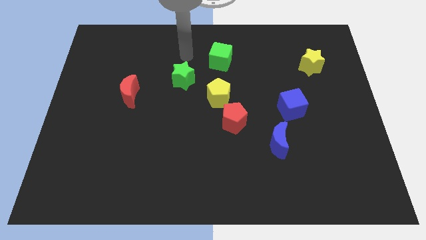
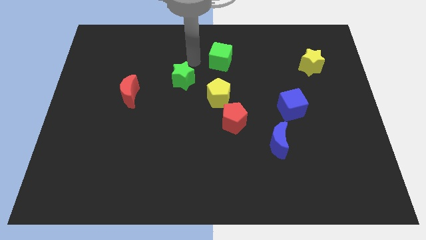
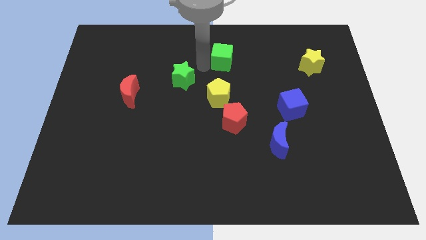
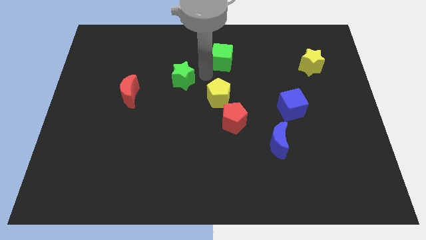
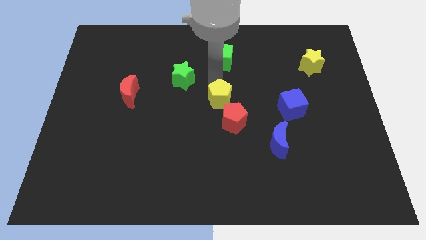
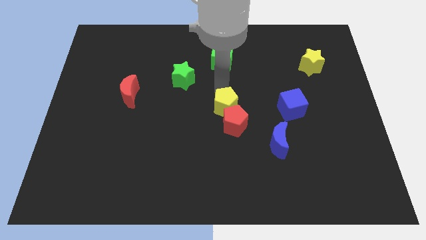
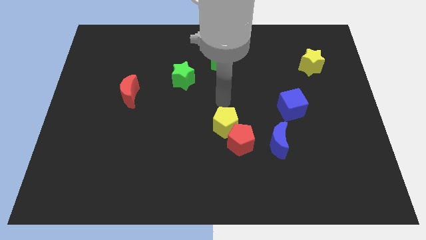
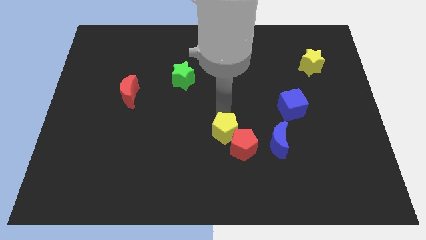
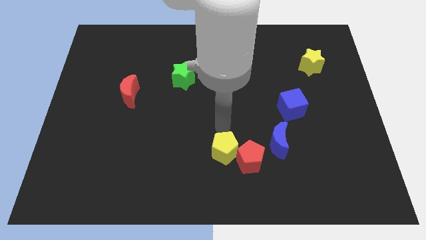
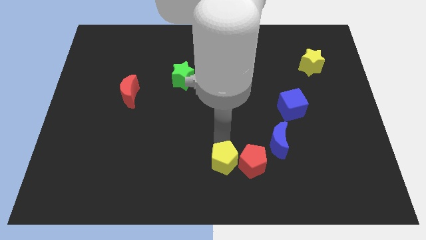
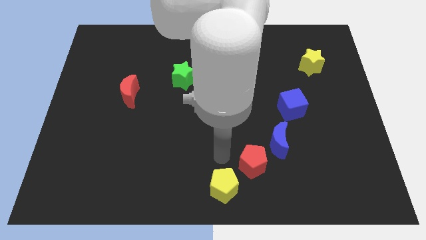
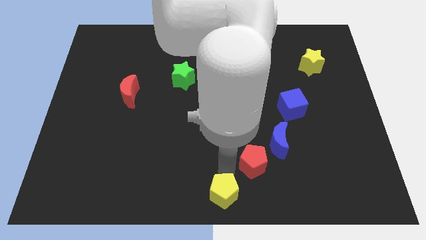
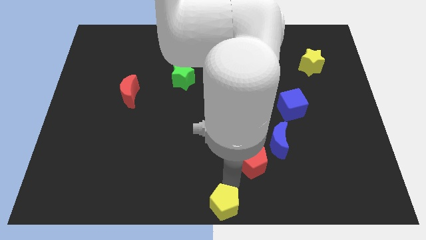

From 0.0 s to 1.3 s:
separate the red pentagon from the yellow pentagon

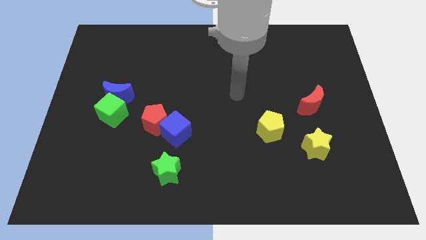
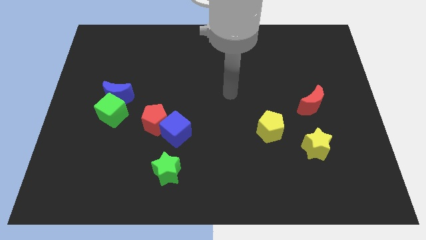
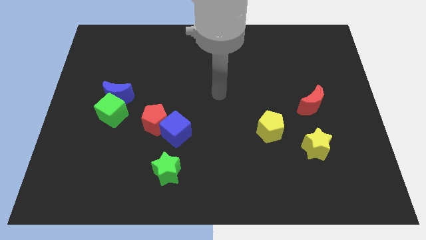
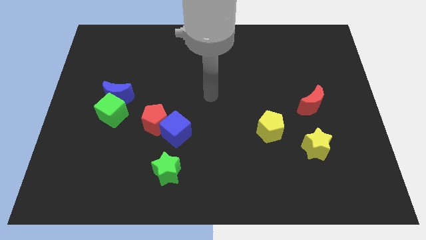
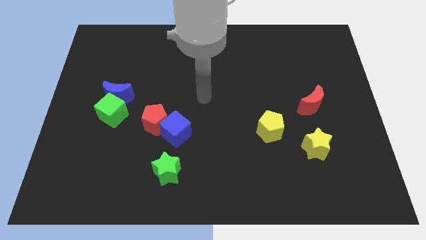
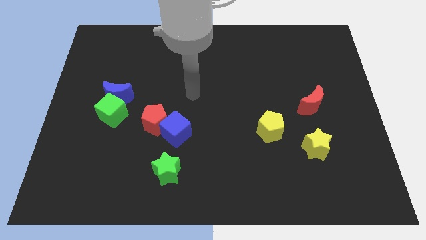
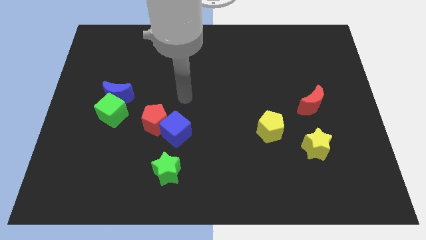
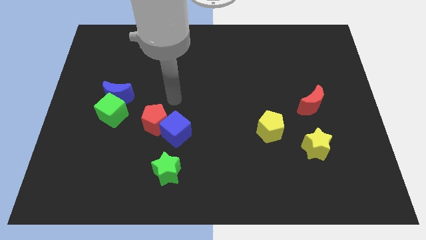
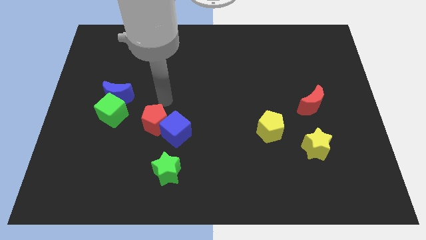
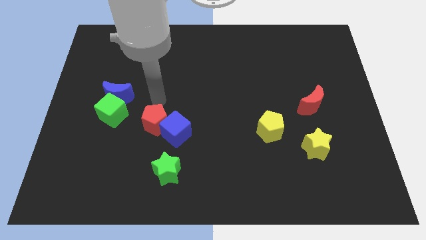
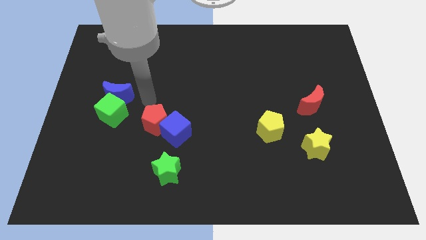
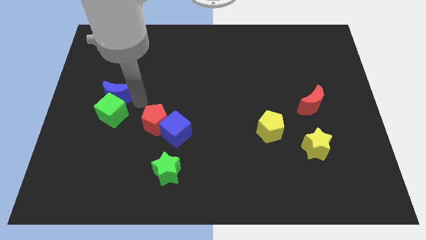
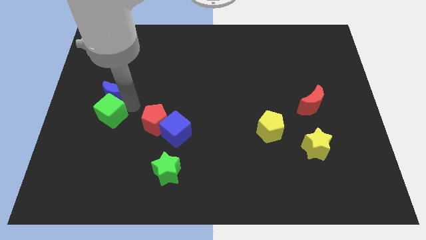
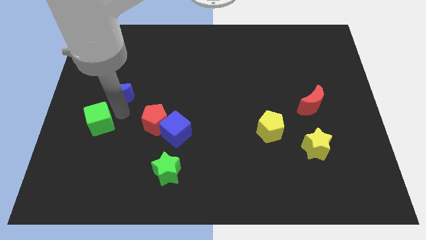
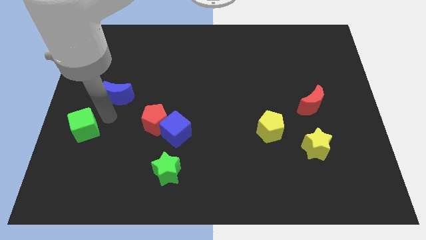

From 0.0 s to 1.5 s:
separate the blue moon from the green cube

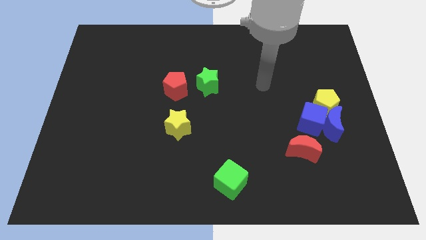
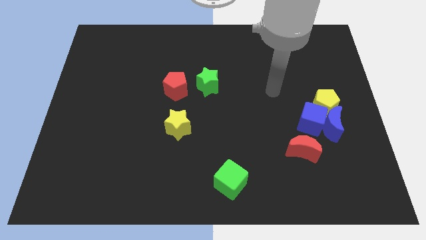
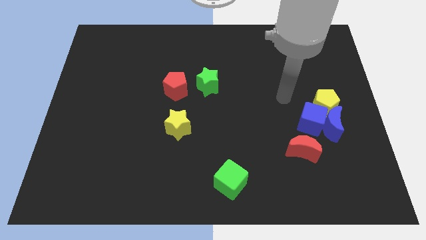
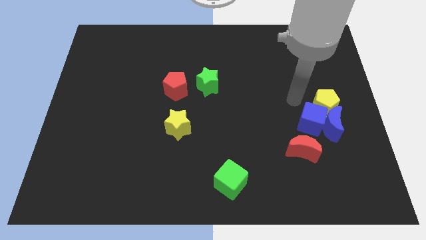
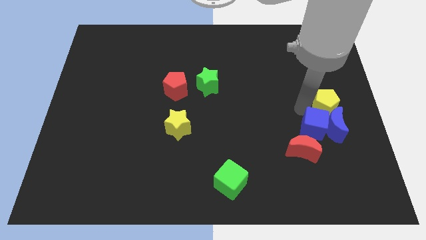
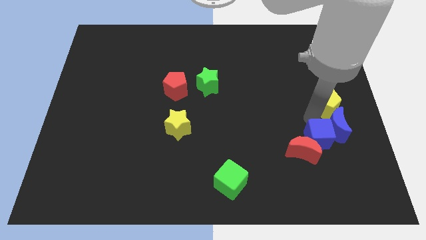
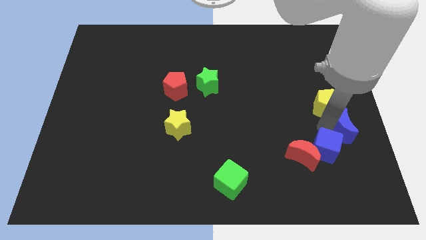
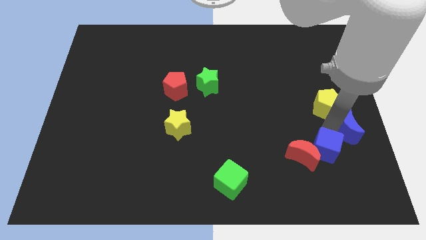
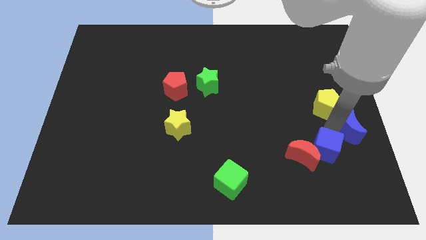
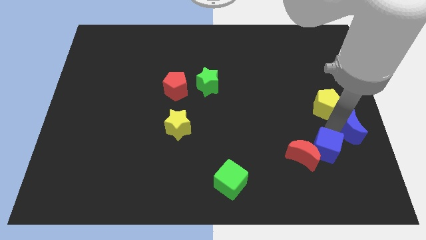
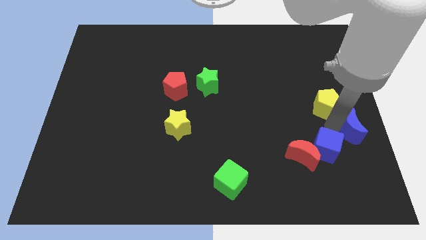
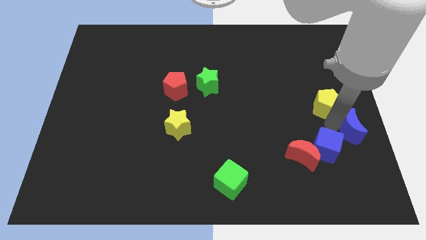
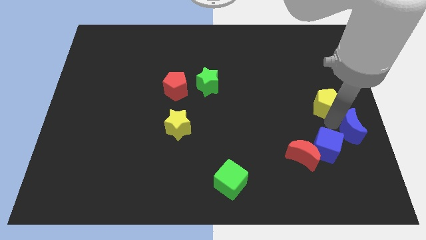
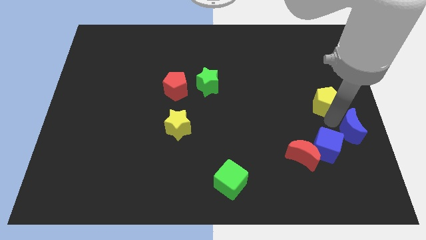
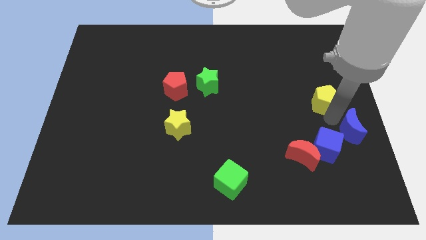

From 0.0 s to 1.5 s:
pull the yellow pentagon apart from the blue cube and blue moon

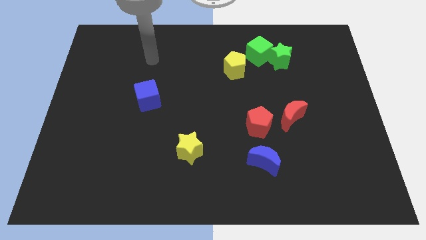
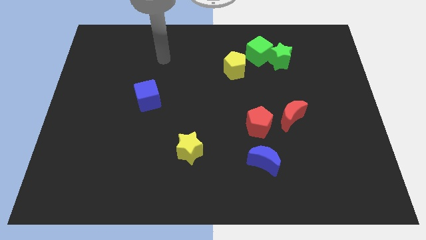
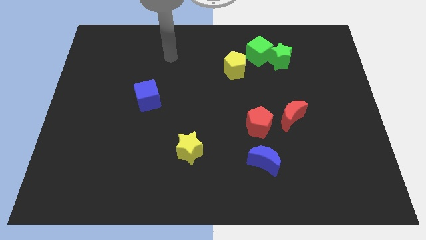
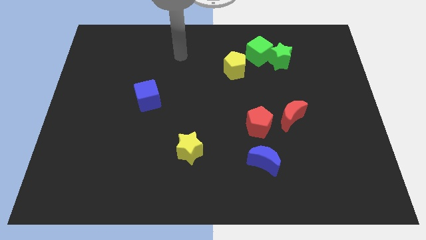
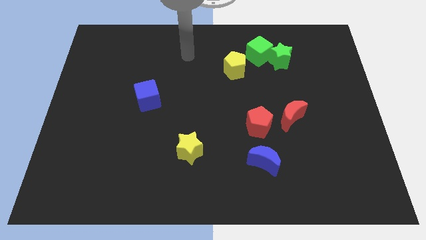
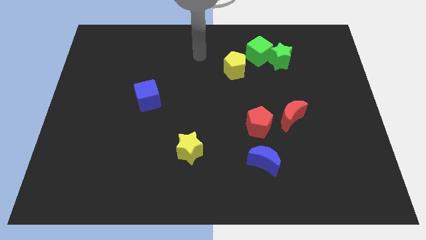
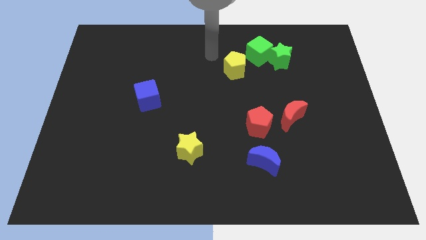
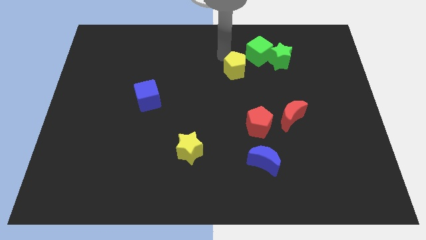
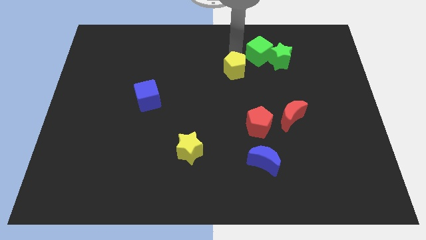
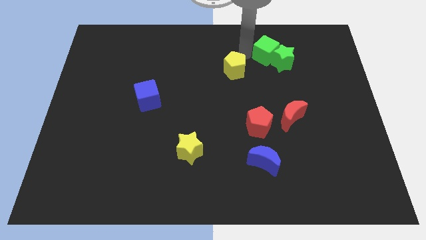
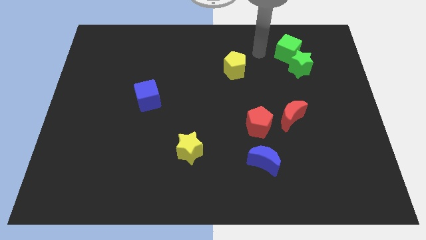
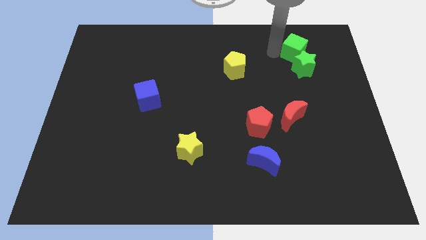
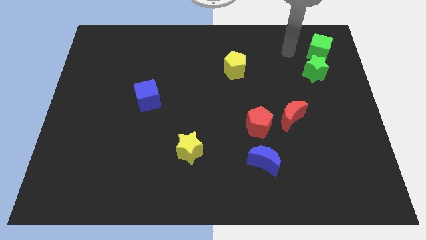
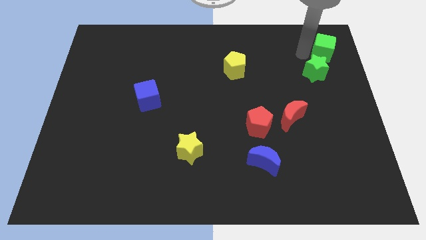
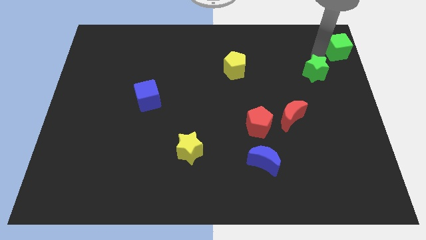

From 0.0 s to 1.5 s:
pull the green star apart from the green cube

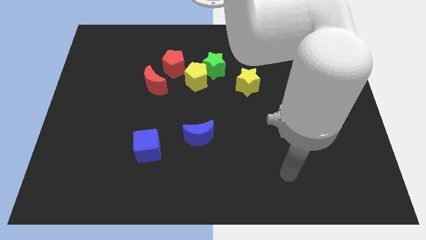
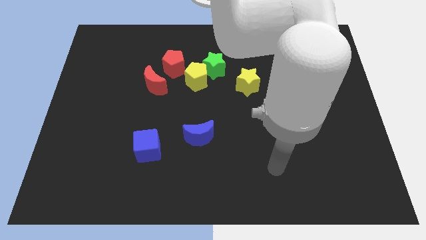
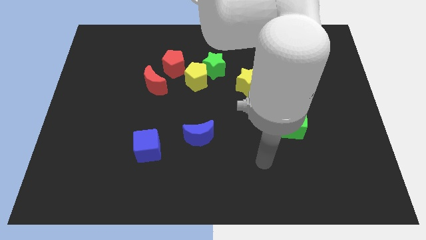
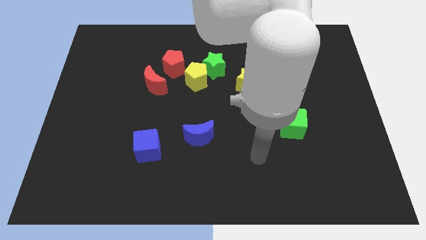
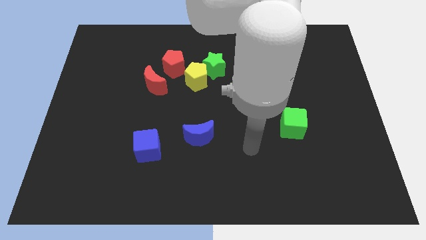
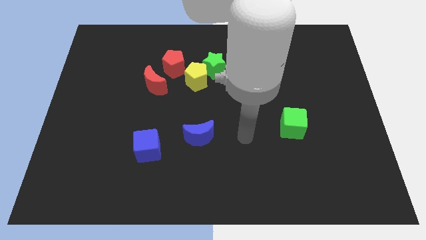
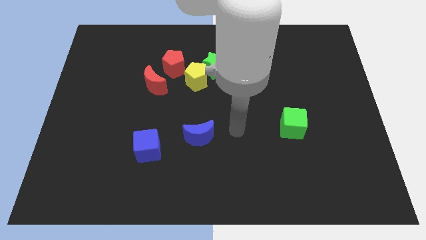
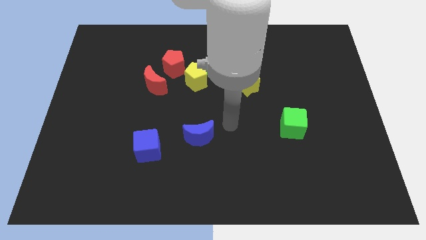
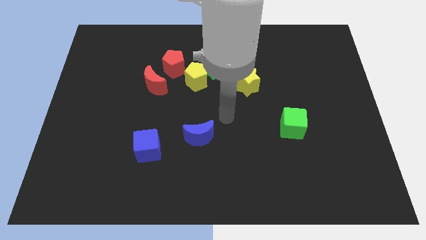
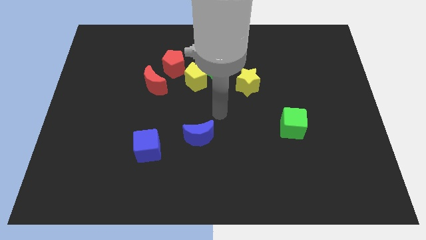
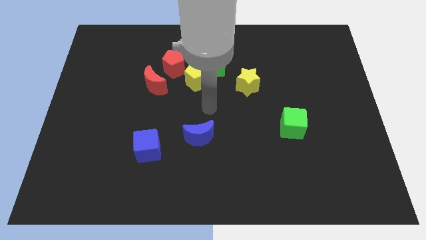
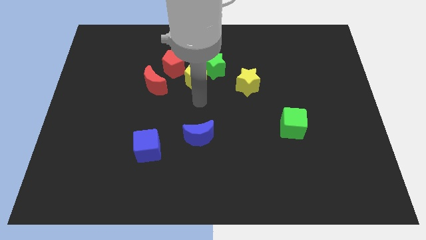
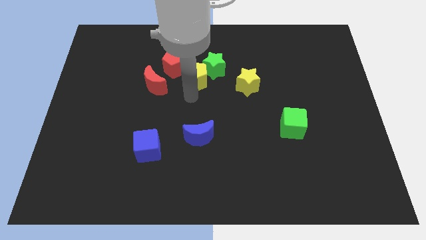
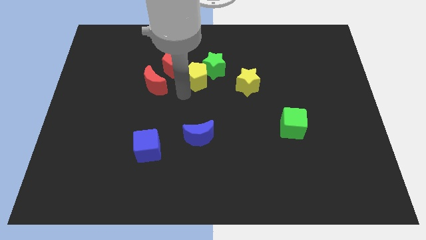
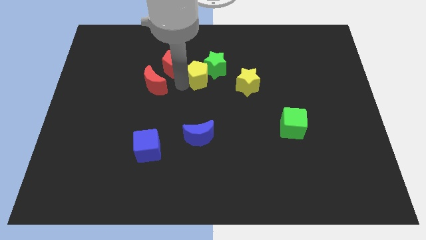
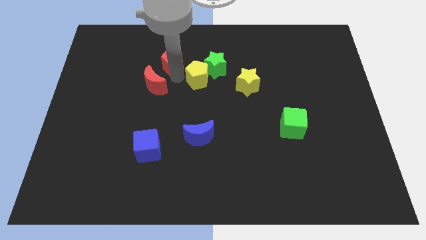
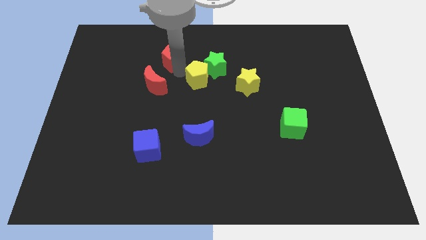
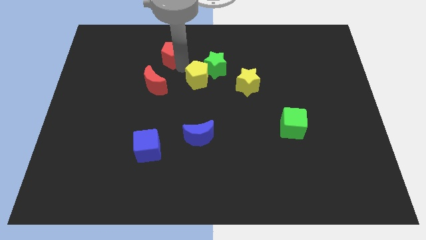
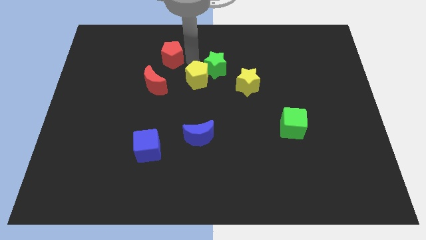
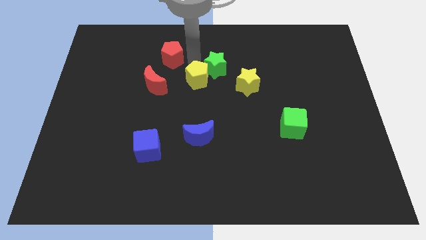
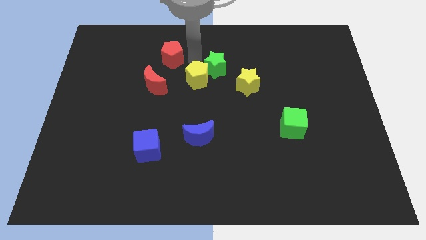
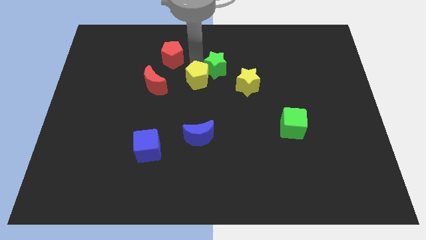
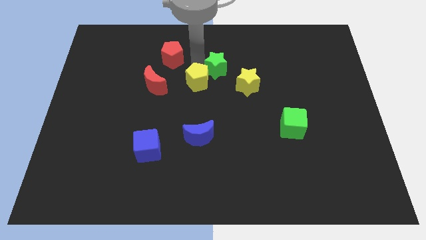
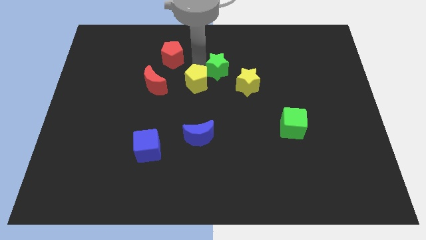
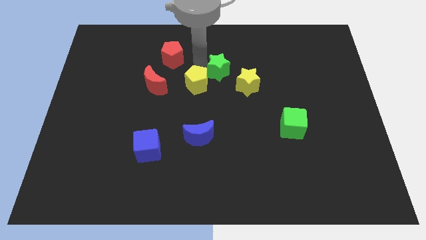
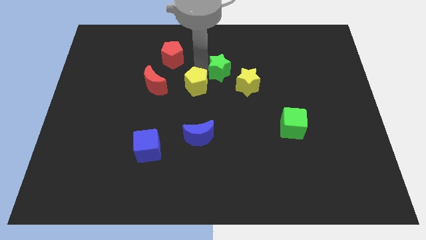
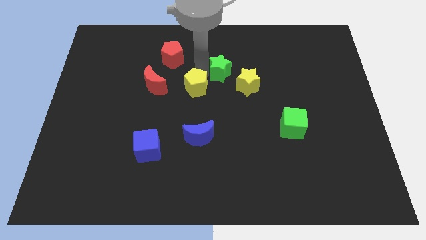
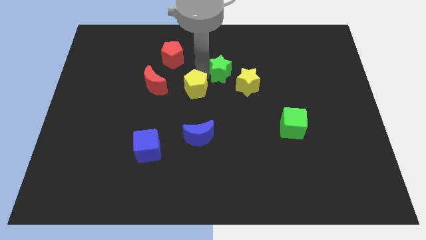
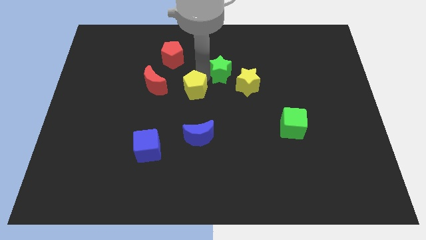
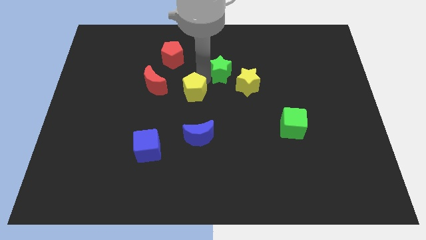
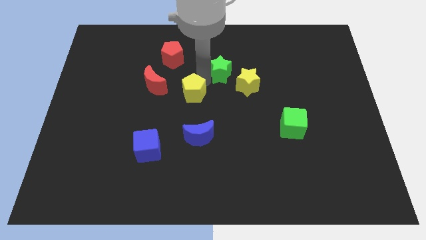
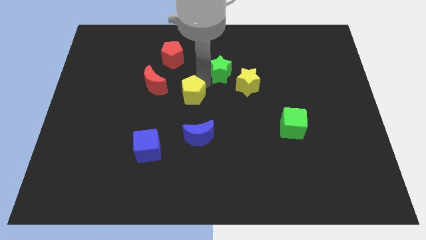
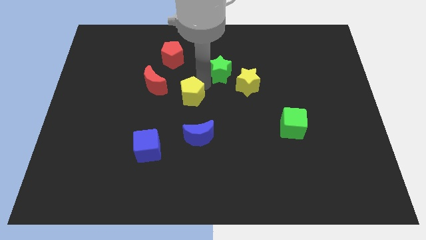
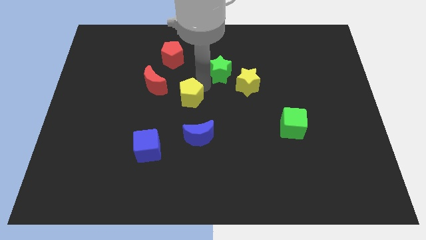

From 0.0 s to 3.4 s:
separate the yellow pentagon from the green star and red pentagon

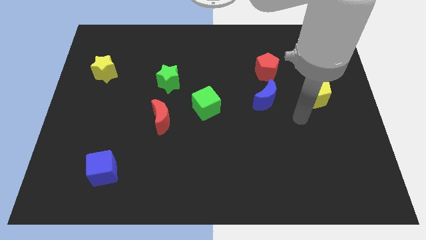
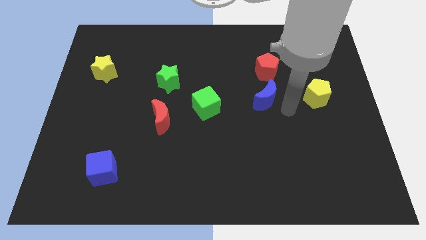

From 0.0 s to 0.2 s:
pull the red pentagon apart from the blue moon
